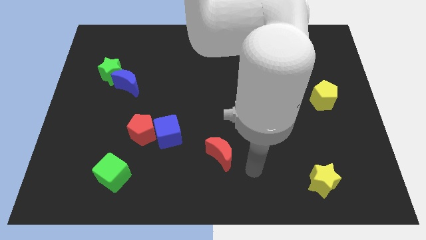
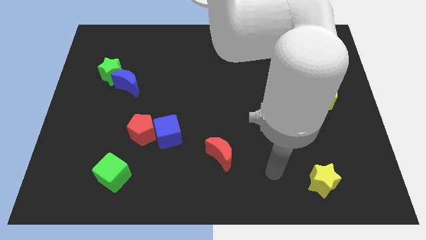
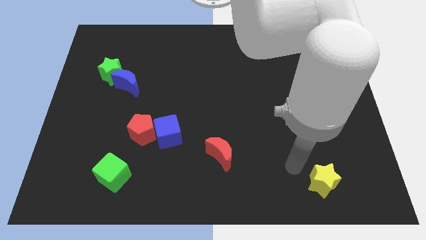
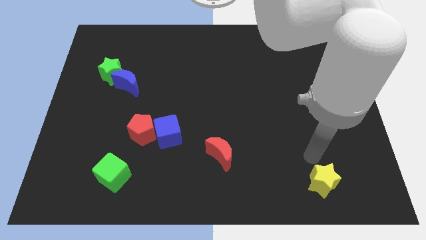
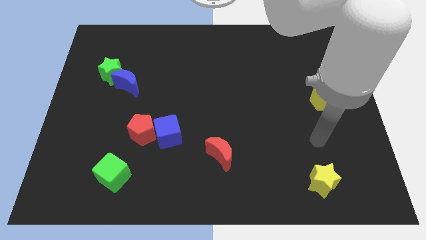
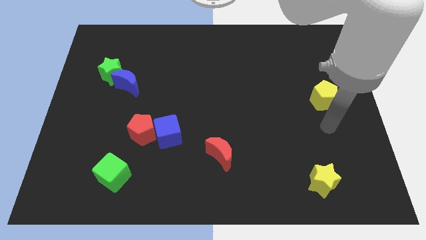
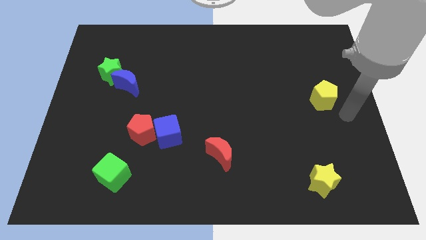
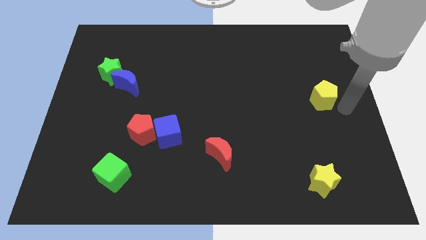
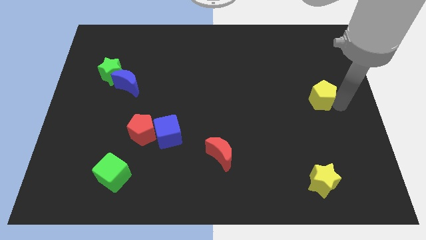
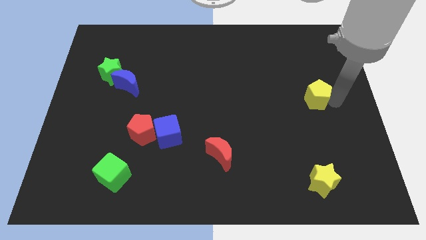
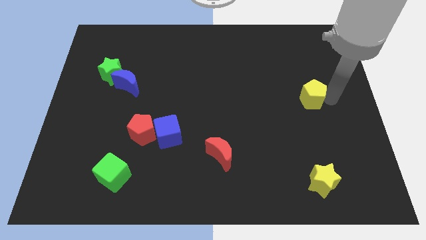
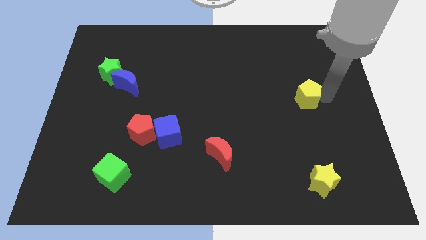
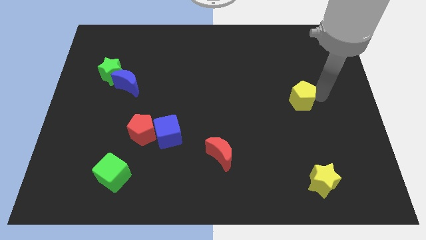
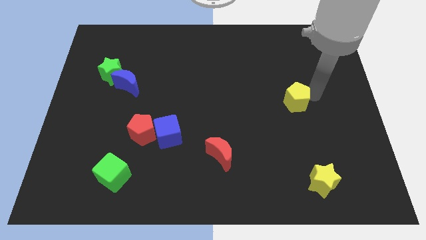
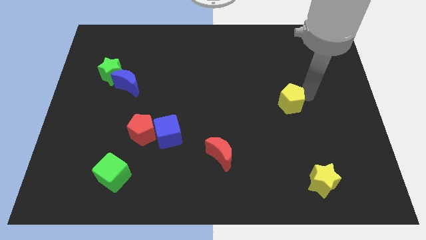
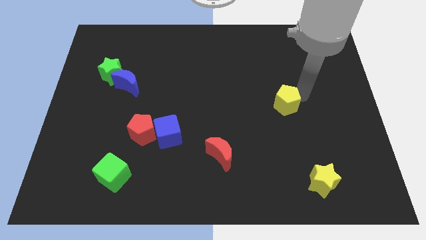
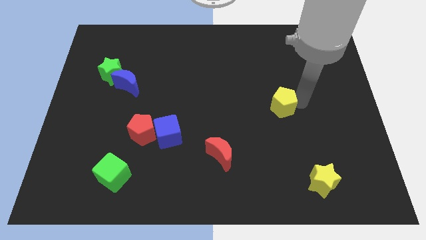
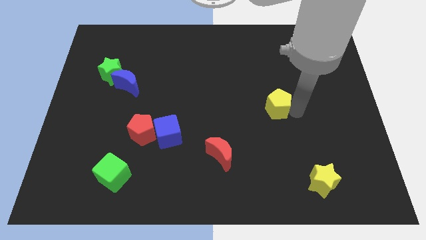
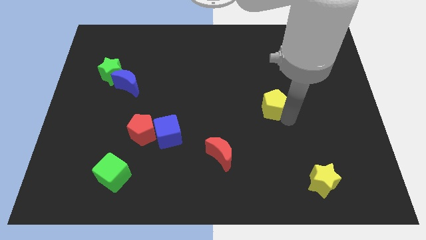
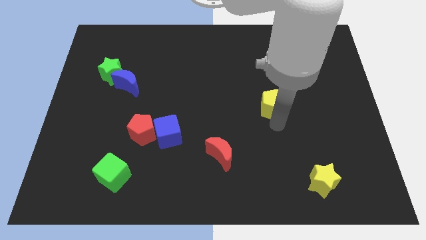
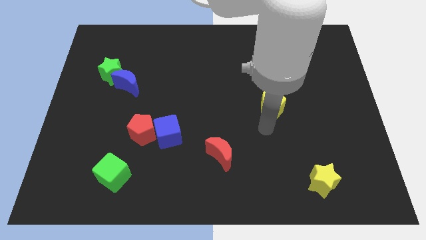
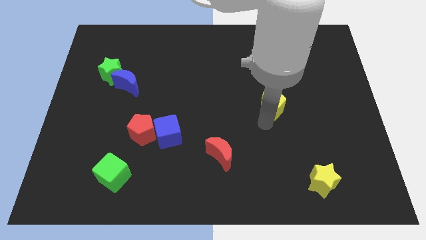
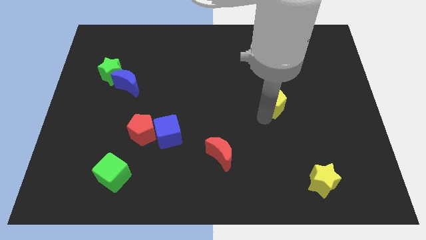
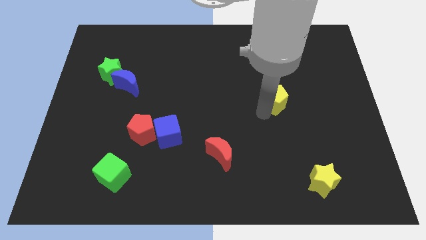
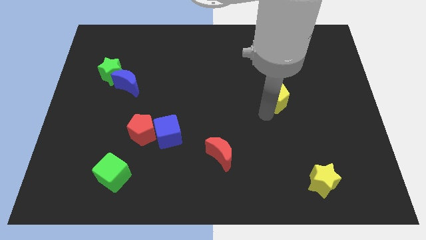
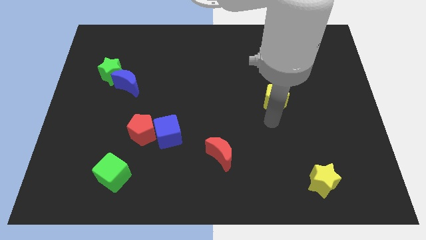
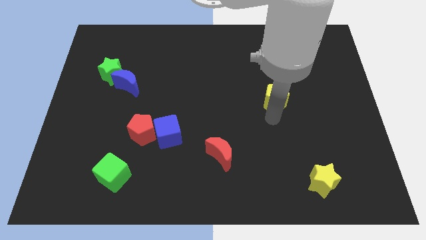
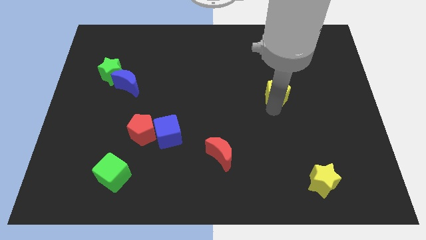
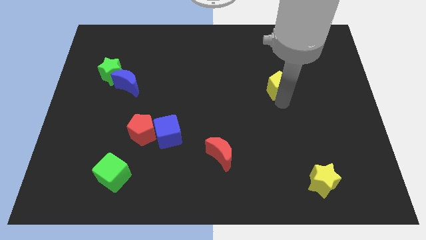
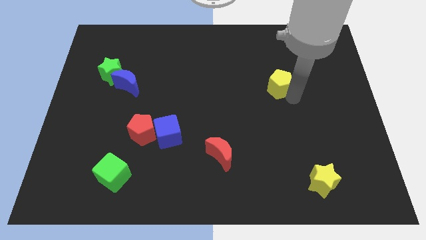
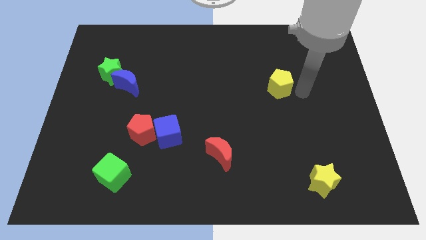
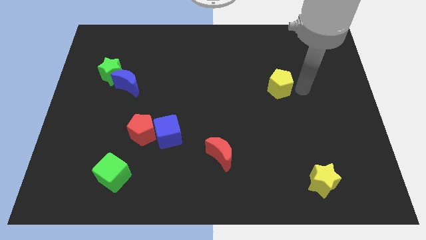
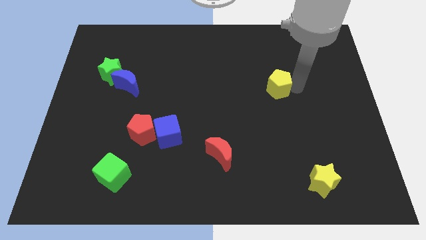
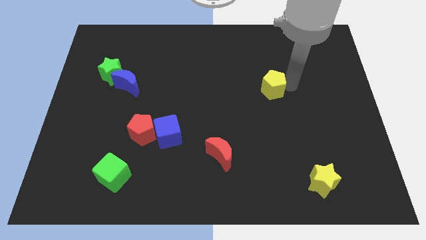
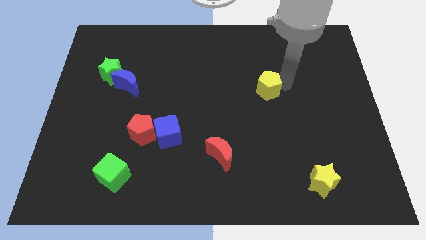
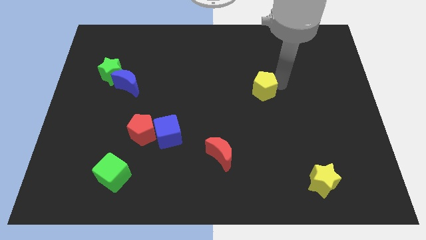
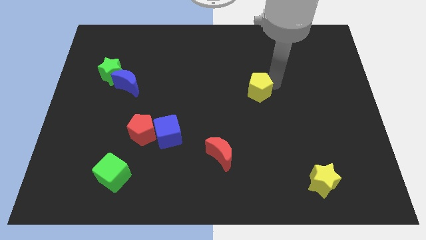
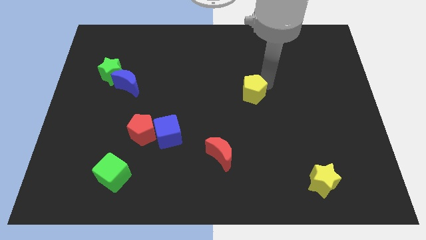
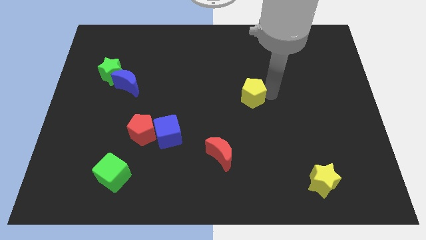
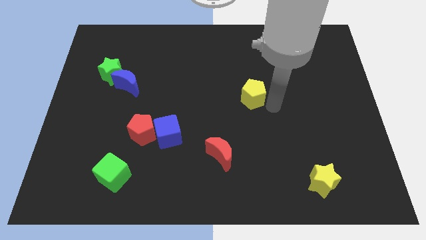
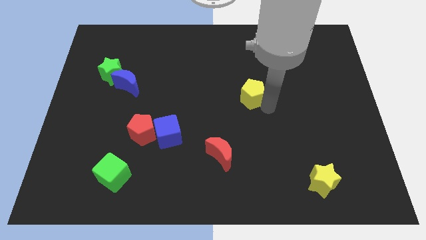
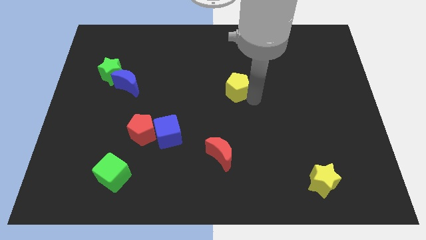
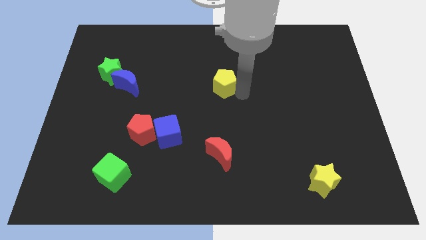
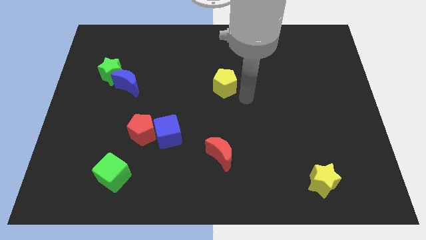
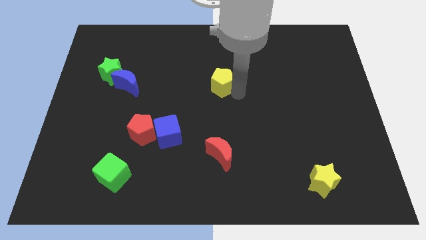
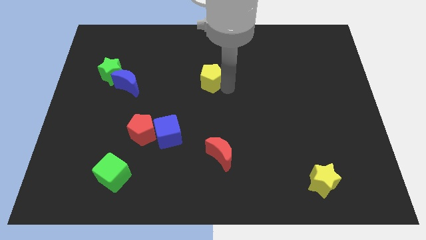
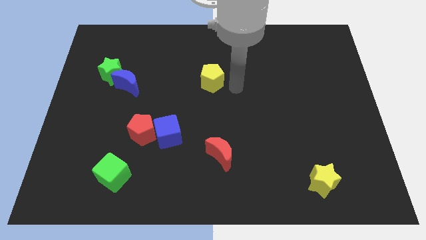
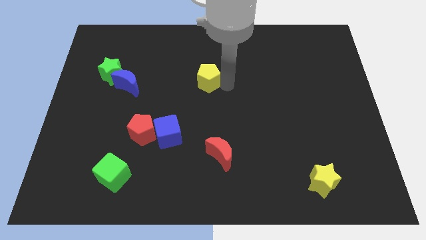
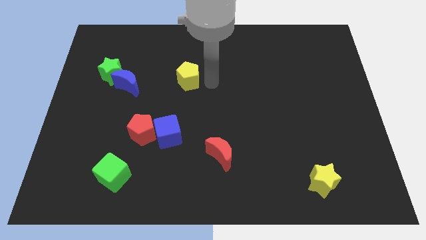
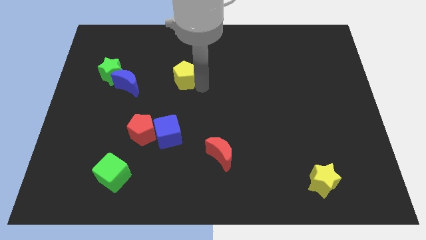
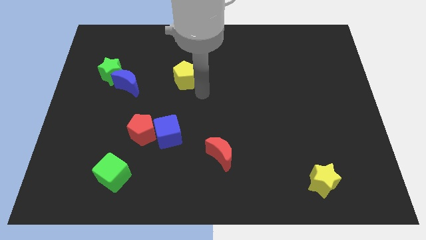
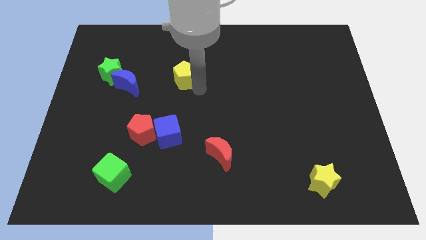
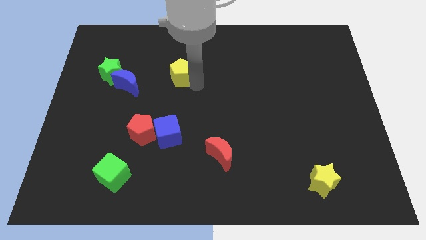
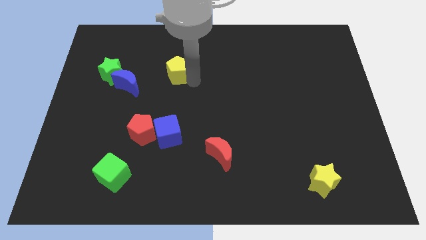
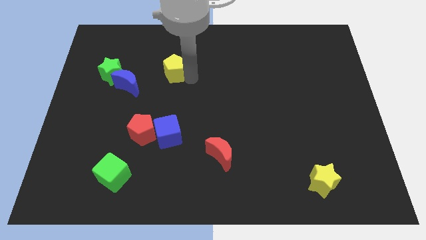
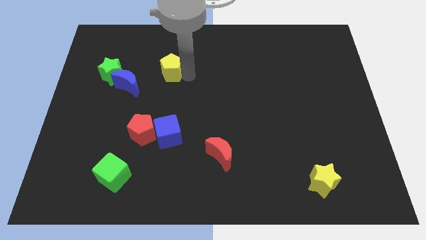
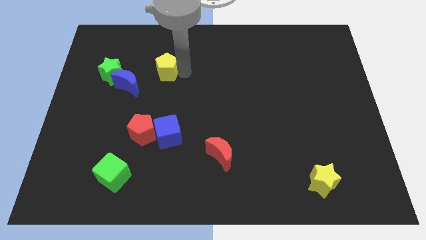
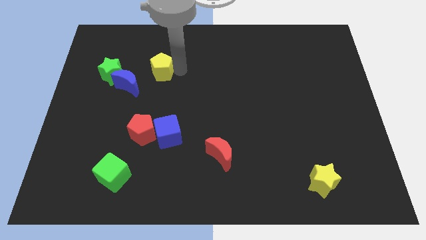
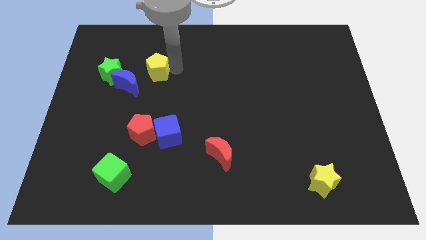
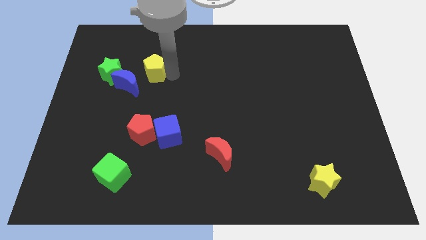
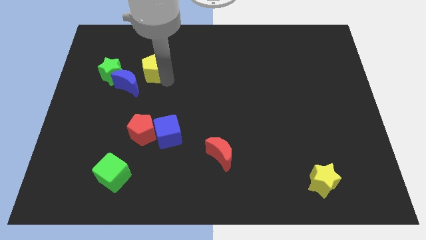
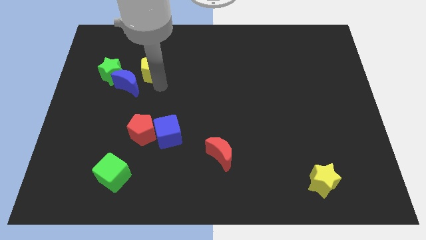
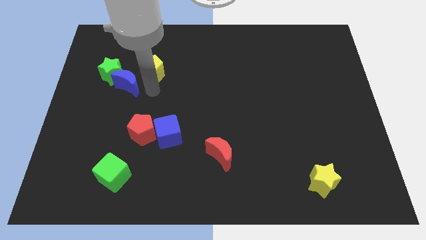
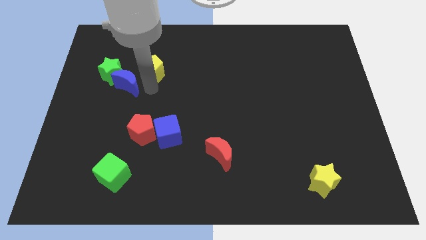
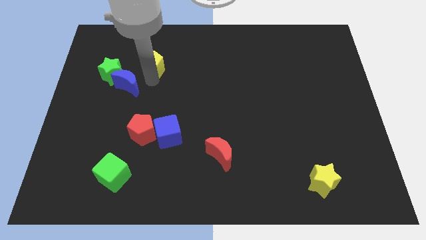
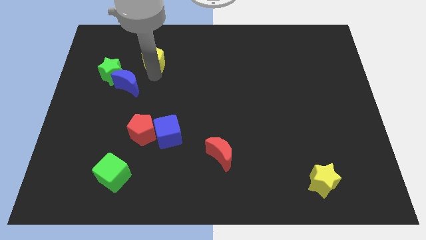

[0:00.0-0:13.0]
put the yellow pentagon to the top right of the green star
